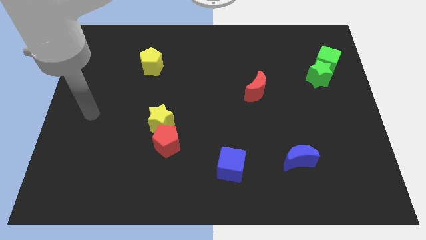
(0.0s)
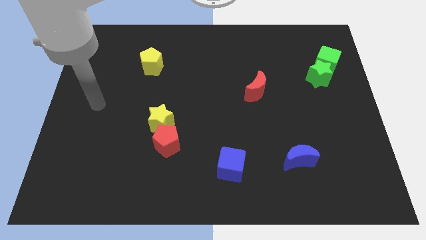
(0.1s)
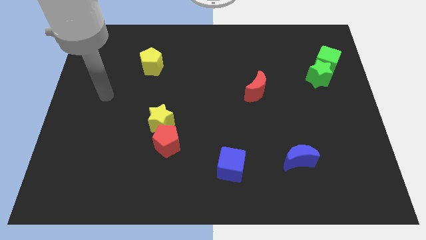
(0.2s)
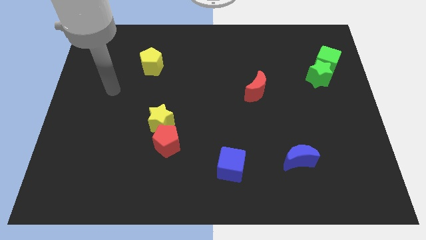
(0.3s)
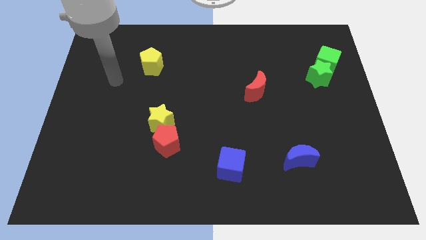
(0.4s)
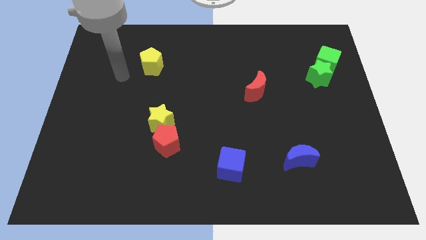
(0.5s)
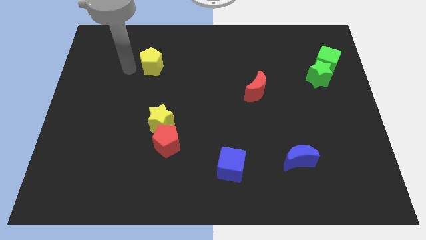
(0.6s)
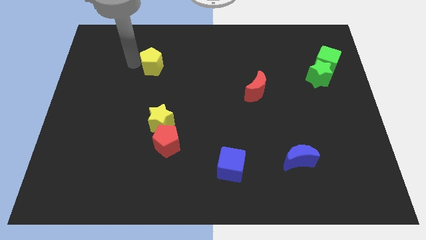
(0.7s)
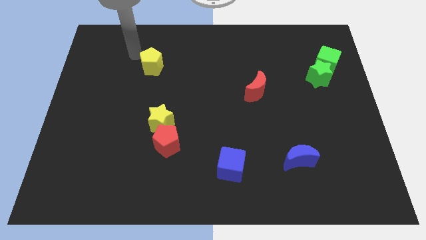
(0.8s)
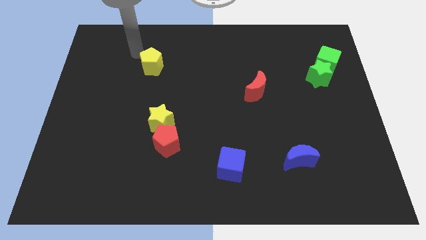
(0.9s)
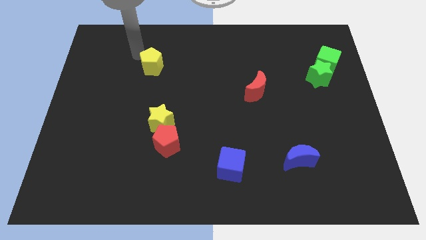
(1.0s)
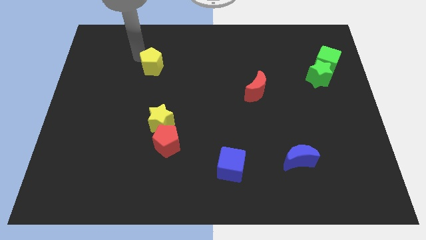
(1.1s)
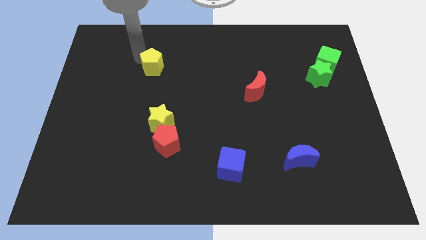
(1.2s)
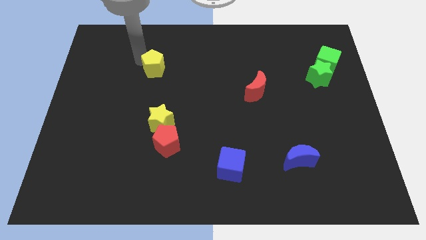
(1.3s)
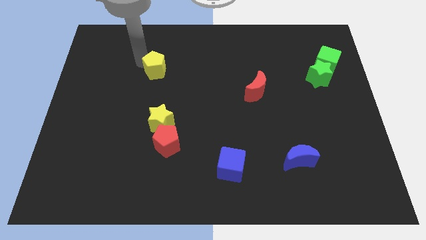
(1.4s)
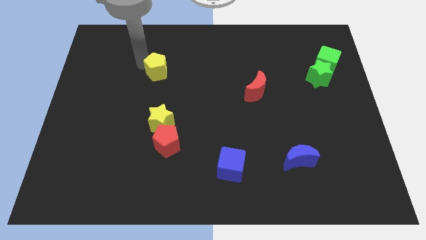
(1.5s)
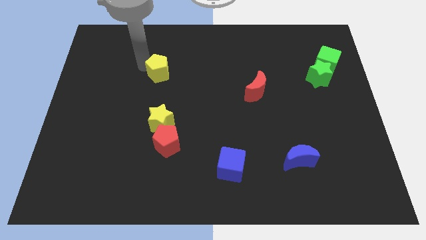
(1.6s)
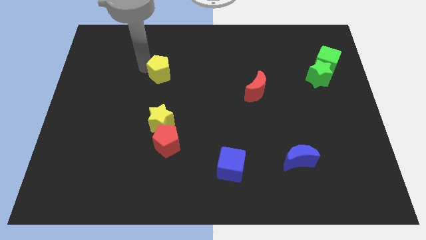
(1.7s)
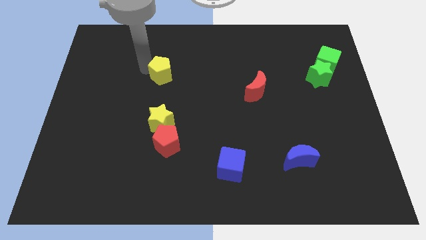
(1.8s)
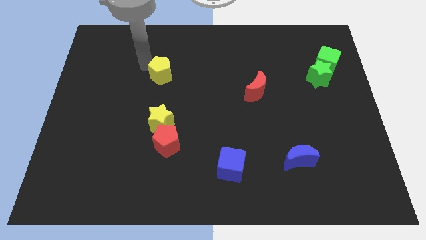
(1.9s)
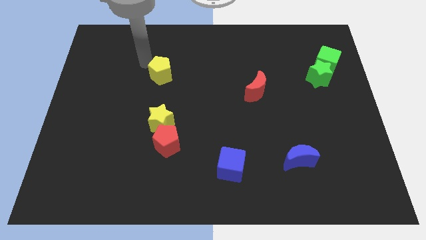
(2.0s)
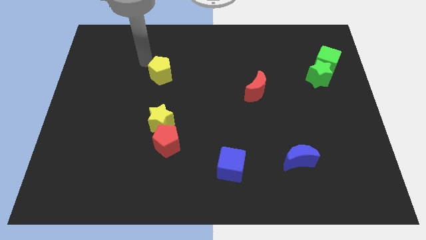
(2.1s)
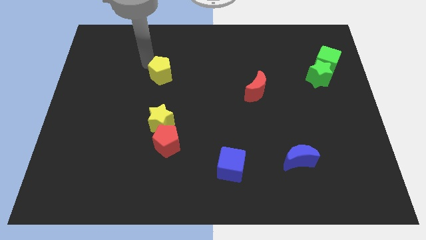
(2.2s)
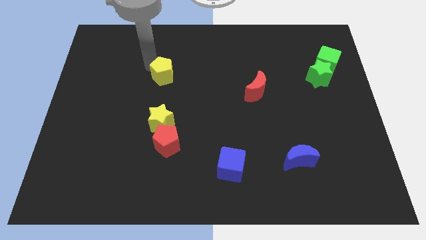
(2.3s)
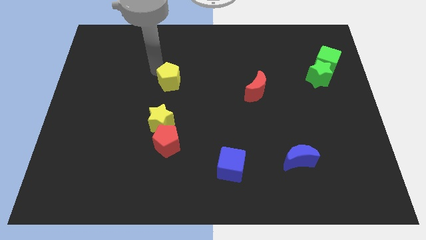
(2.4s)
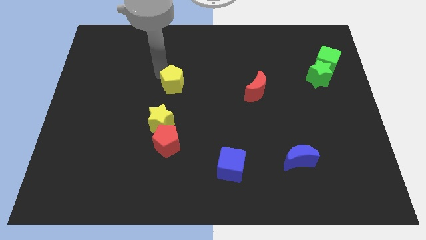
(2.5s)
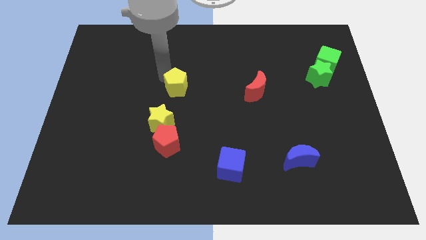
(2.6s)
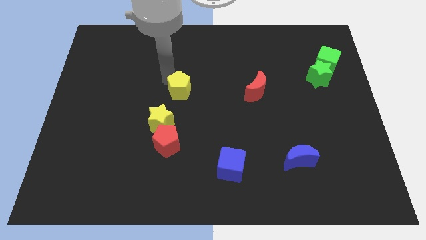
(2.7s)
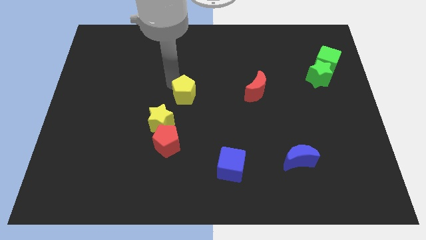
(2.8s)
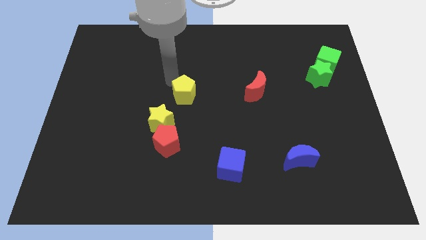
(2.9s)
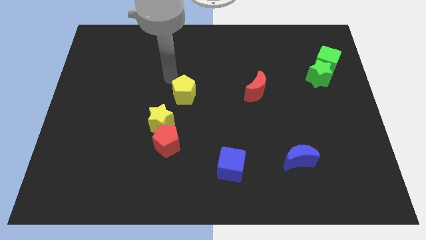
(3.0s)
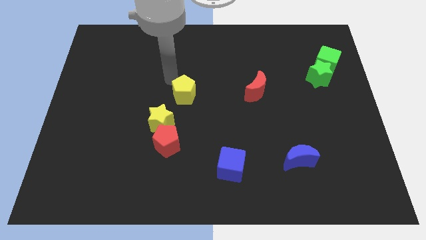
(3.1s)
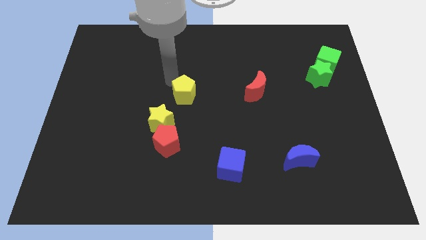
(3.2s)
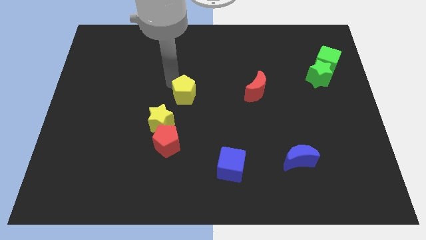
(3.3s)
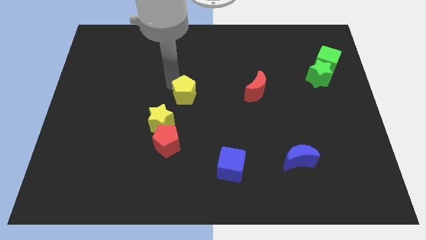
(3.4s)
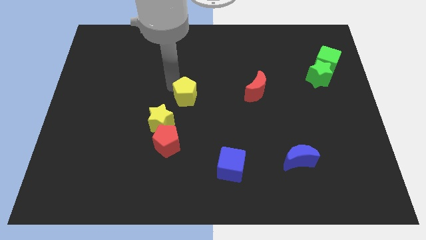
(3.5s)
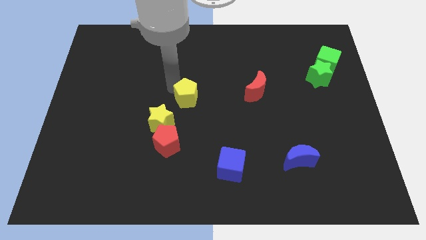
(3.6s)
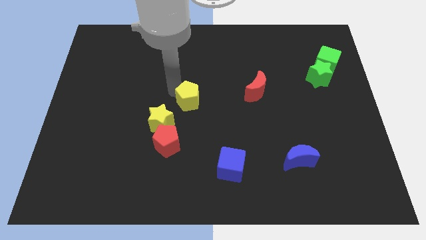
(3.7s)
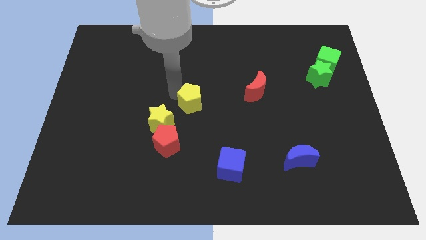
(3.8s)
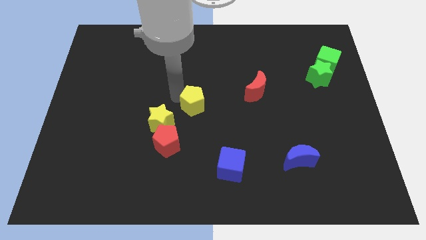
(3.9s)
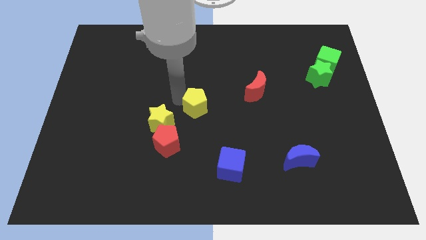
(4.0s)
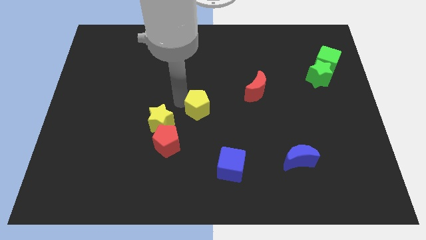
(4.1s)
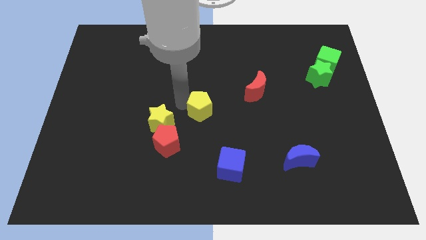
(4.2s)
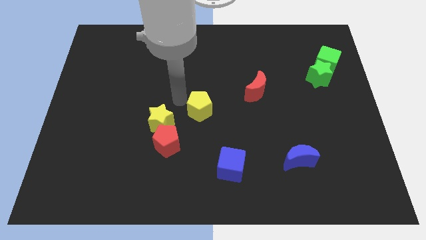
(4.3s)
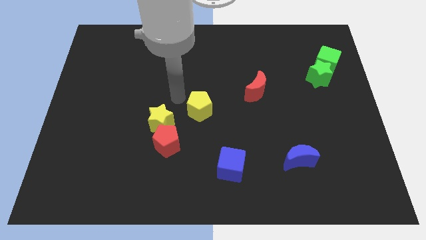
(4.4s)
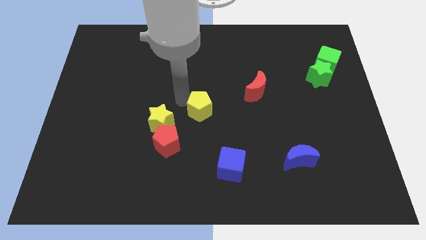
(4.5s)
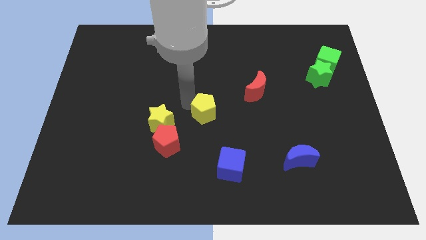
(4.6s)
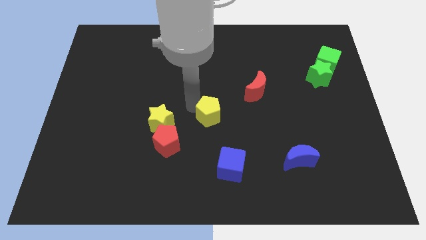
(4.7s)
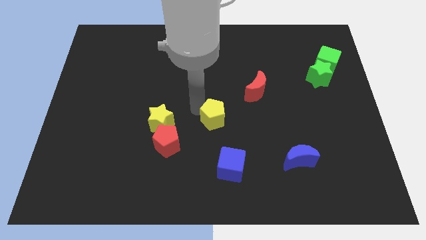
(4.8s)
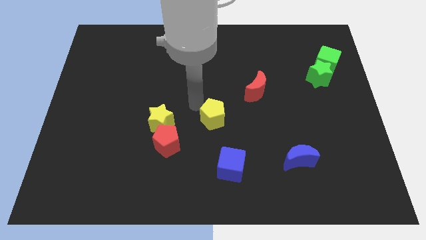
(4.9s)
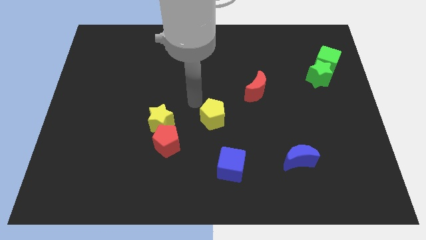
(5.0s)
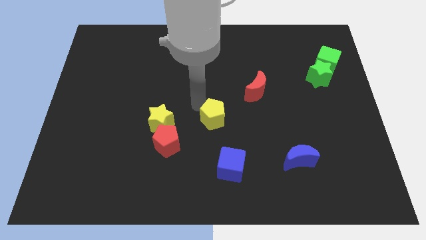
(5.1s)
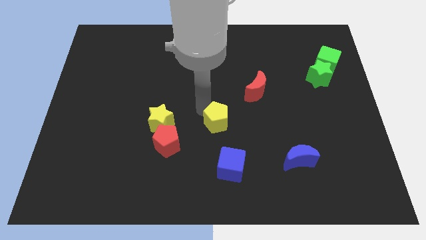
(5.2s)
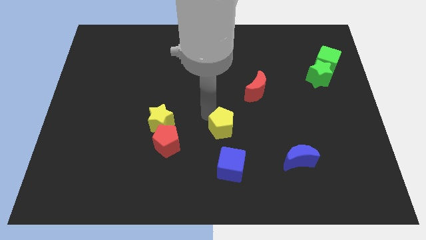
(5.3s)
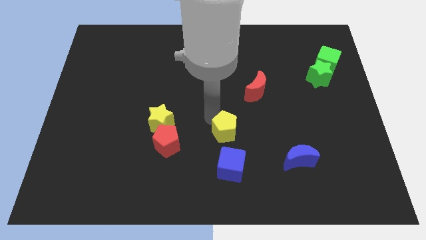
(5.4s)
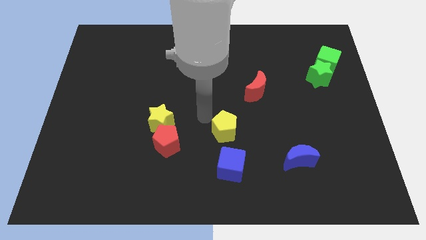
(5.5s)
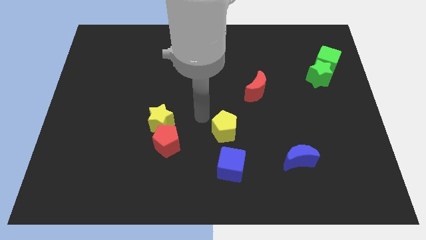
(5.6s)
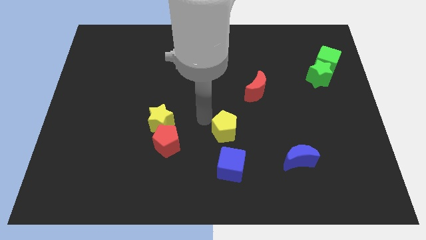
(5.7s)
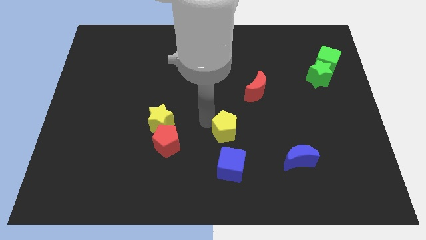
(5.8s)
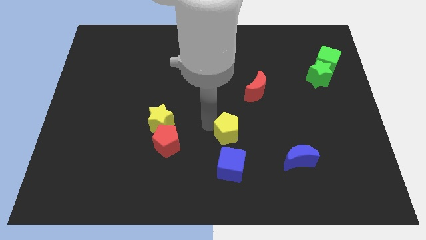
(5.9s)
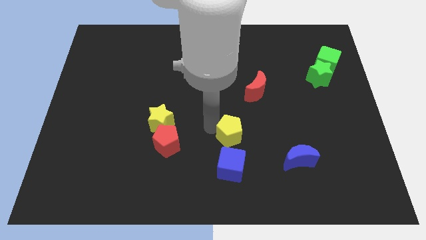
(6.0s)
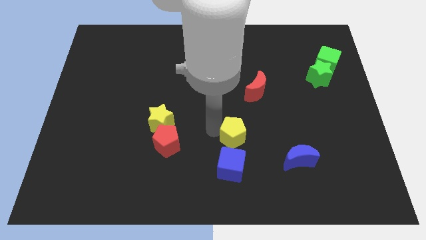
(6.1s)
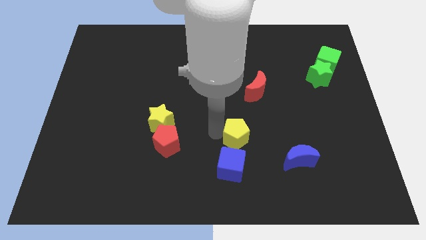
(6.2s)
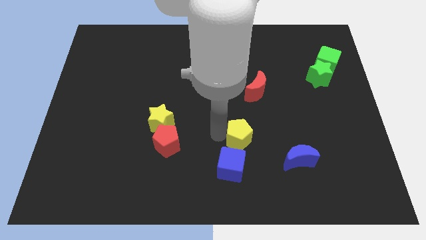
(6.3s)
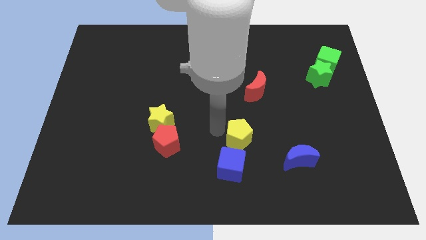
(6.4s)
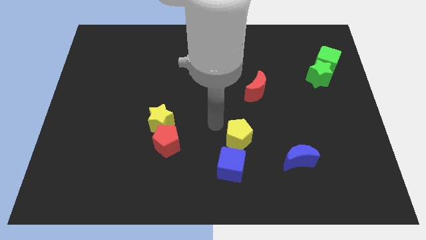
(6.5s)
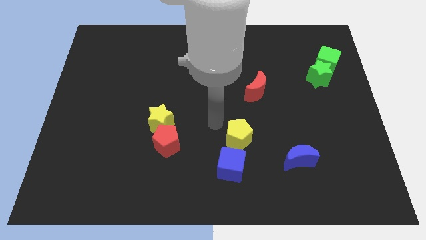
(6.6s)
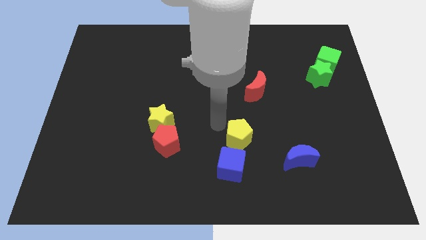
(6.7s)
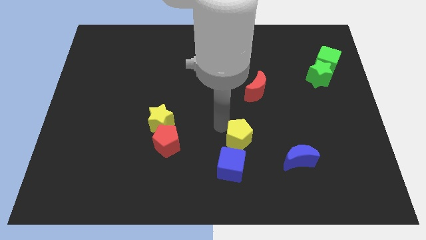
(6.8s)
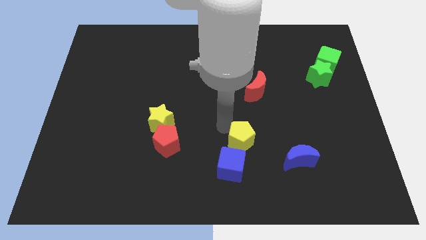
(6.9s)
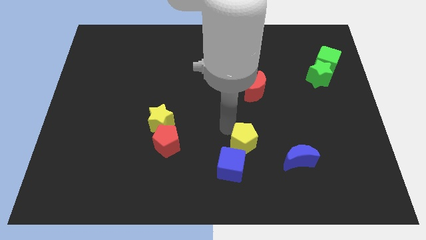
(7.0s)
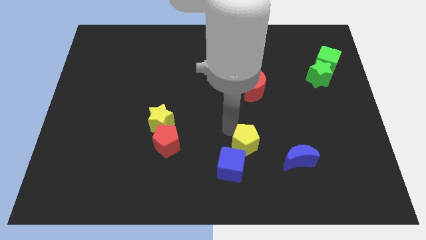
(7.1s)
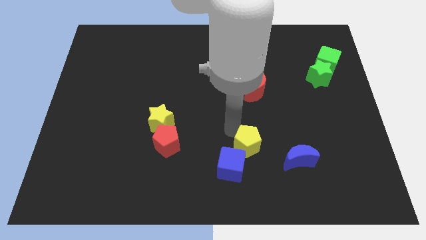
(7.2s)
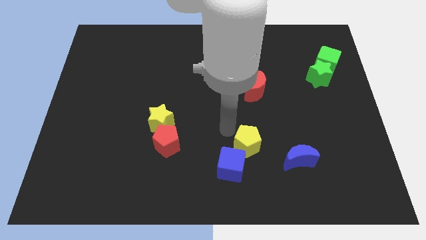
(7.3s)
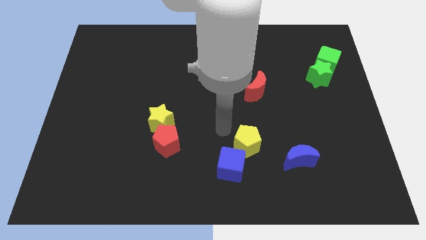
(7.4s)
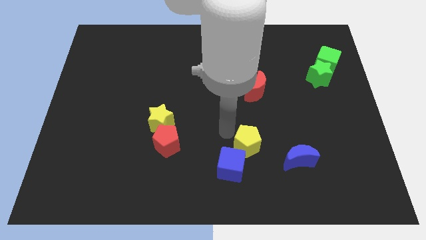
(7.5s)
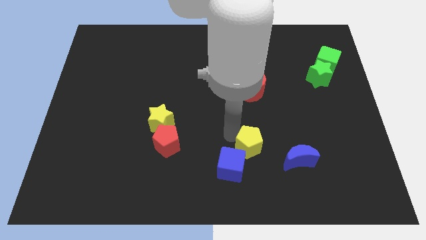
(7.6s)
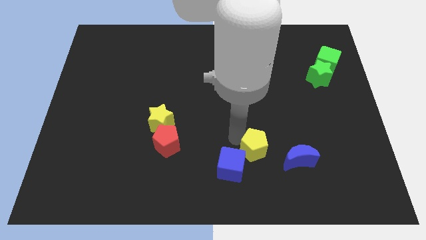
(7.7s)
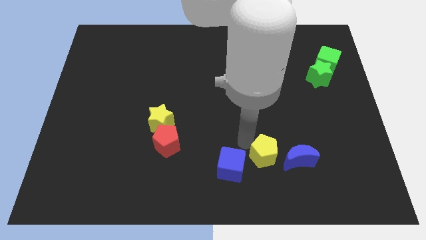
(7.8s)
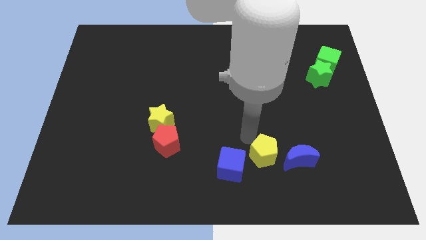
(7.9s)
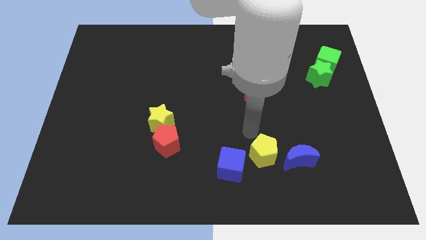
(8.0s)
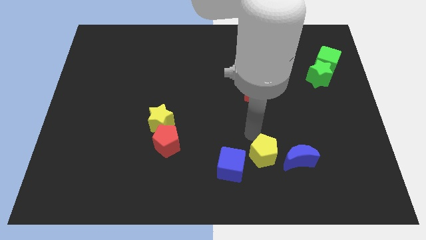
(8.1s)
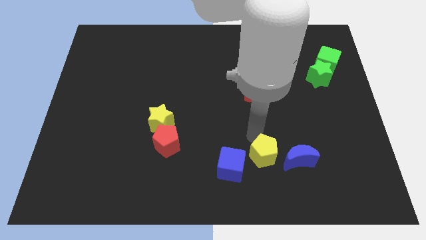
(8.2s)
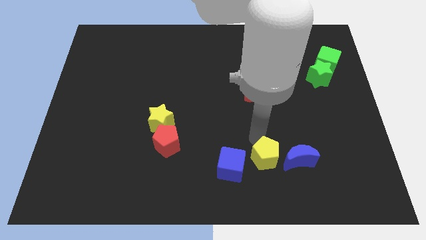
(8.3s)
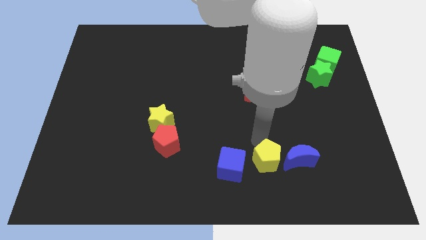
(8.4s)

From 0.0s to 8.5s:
slide the yellow pentagon to the bottom left side of the blue moon
